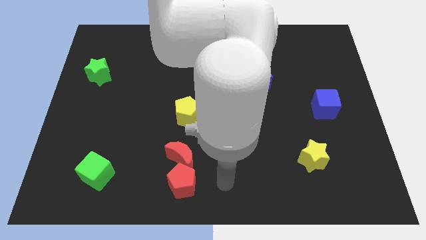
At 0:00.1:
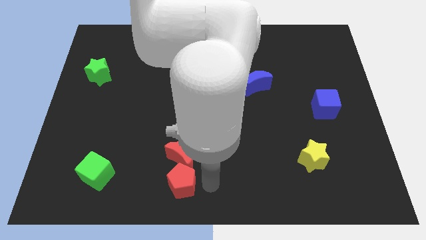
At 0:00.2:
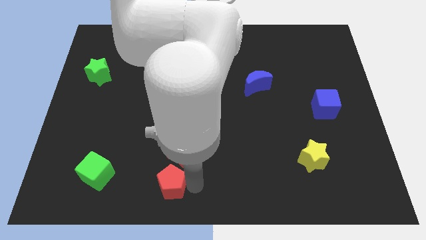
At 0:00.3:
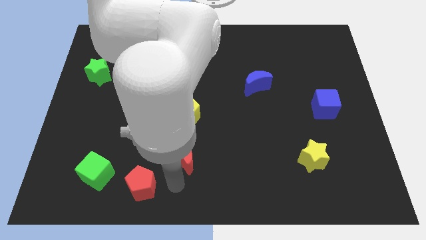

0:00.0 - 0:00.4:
pull the red moon apart from the red pentagon

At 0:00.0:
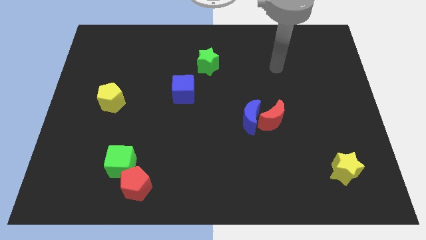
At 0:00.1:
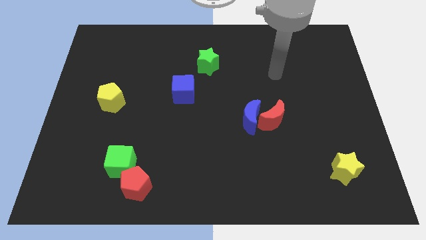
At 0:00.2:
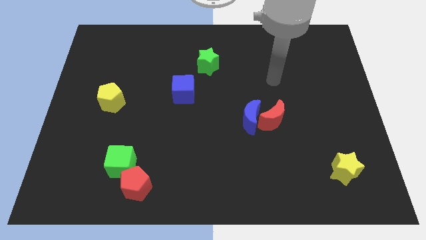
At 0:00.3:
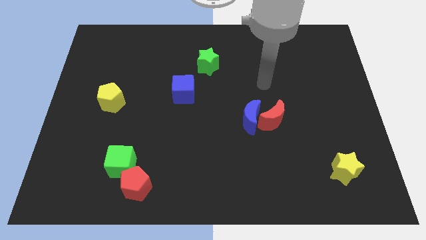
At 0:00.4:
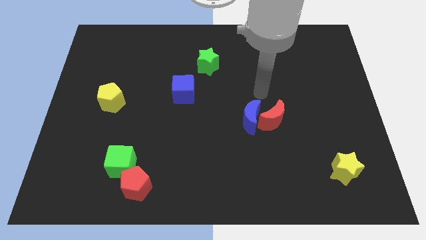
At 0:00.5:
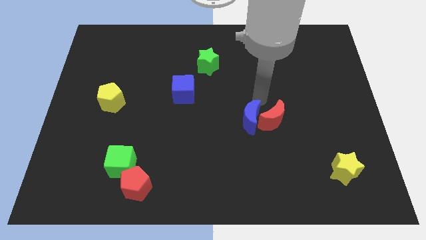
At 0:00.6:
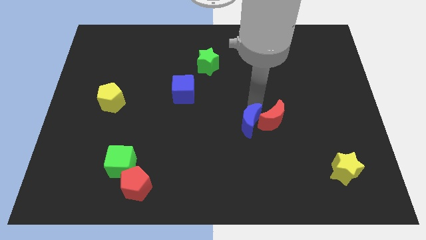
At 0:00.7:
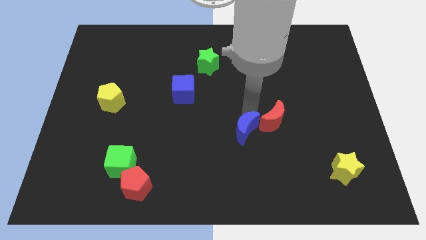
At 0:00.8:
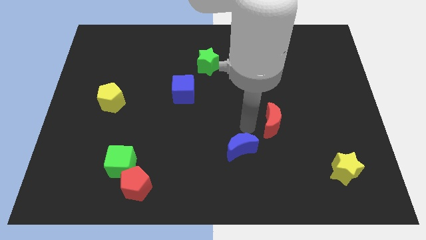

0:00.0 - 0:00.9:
move the red moon away from the blue moon

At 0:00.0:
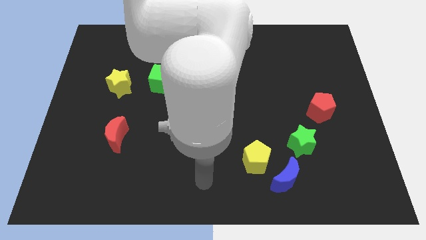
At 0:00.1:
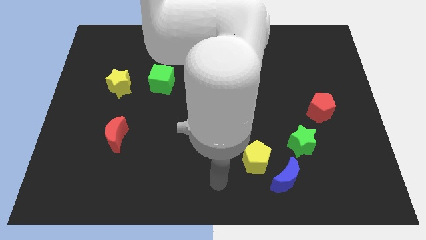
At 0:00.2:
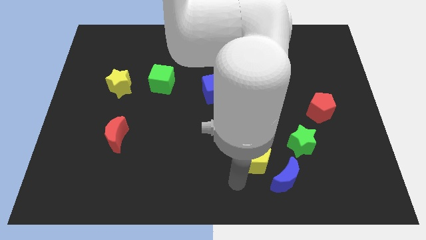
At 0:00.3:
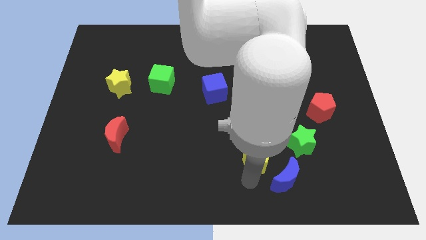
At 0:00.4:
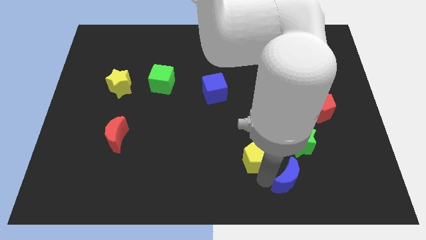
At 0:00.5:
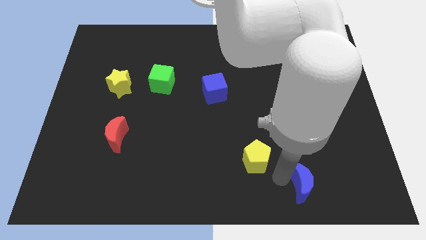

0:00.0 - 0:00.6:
pull the yellow pentagon apart from the blue moon

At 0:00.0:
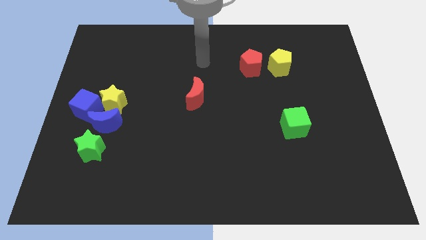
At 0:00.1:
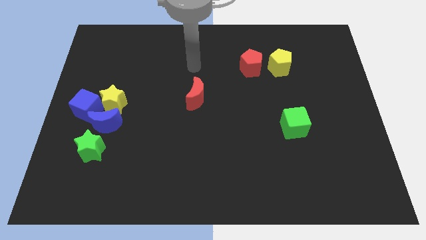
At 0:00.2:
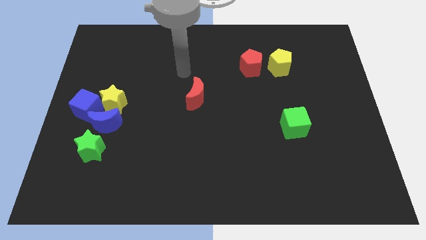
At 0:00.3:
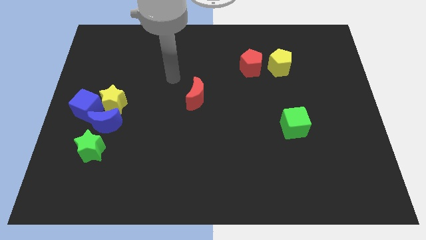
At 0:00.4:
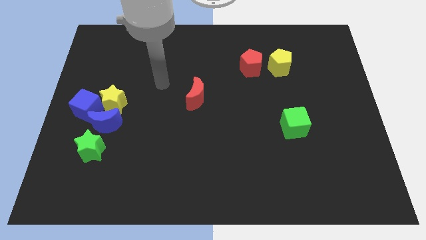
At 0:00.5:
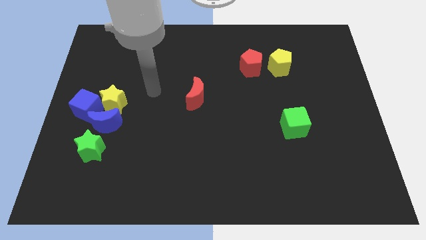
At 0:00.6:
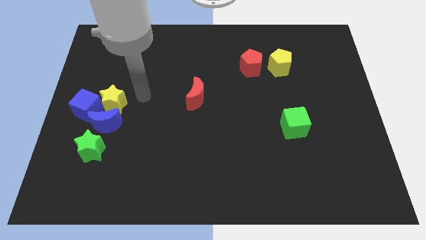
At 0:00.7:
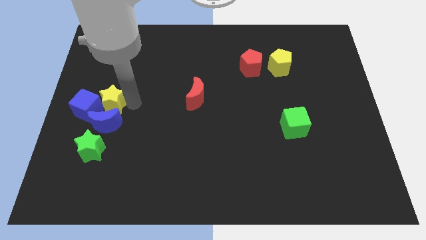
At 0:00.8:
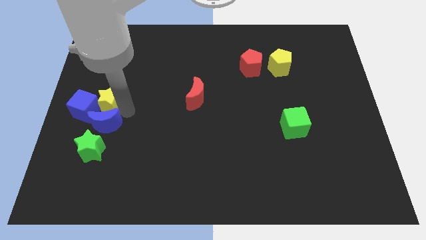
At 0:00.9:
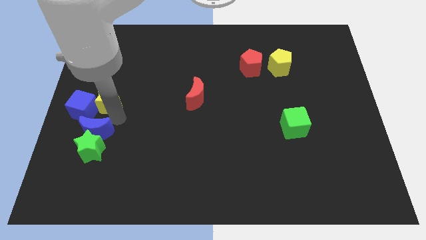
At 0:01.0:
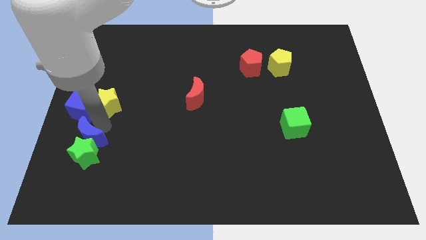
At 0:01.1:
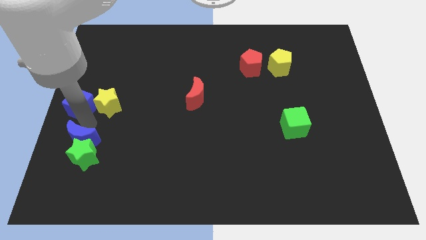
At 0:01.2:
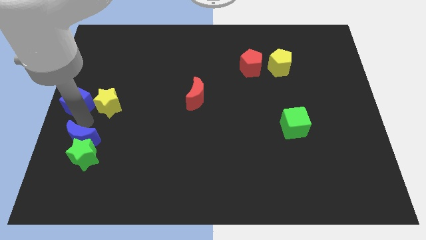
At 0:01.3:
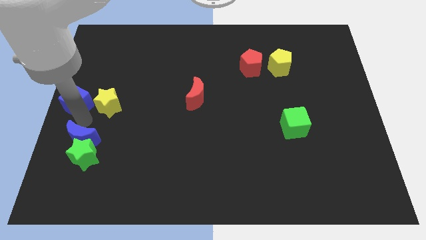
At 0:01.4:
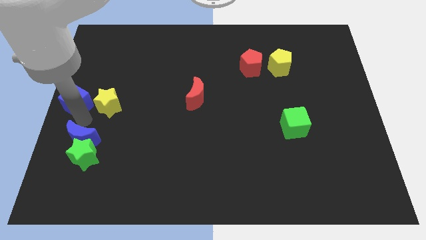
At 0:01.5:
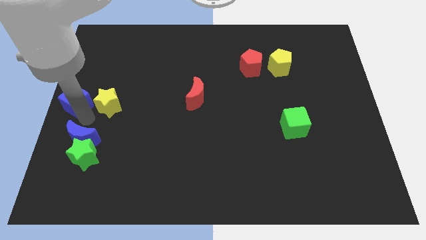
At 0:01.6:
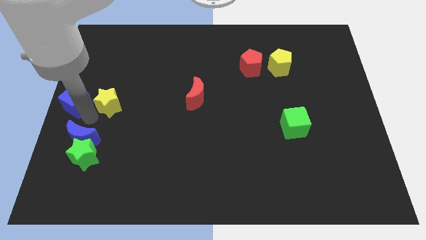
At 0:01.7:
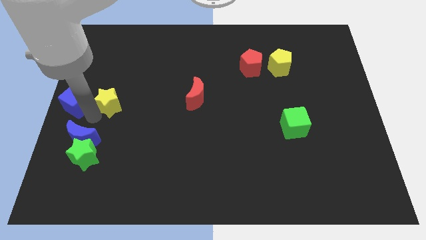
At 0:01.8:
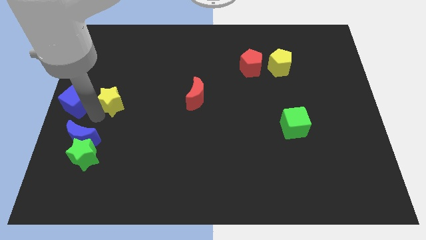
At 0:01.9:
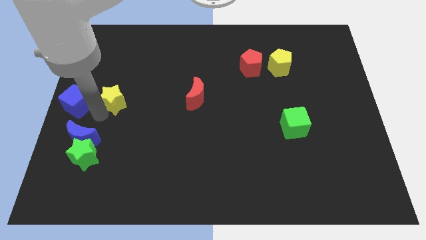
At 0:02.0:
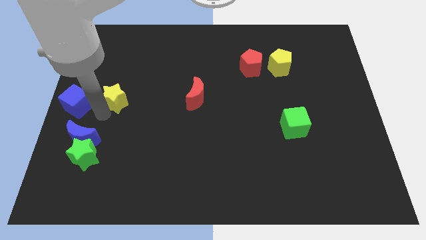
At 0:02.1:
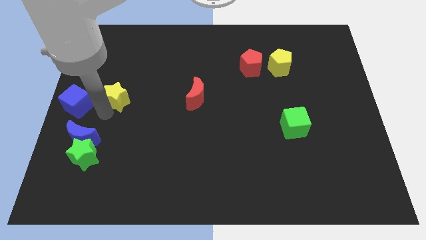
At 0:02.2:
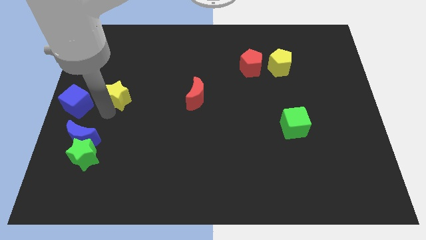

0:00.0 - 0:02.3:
pull the yellow star apart from the blue cube and blue moon

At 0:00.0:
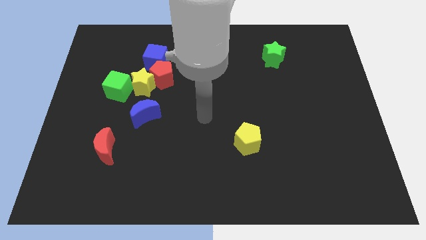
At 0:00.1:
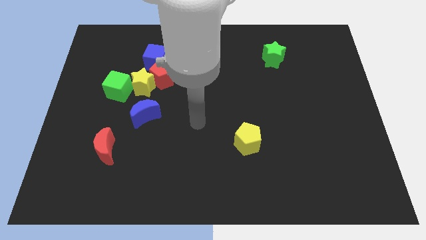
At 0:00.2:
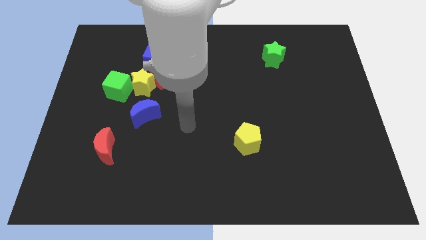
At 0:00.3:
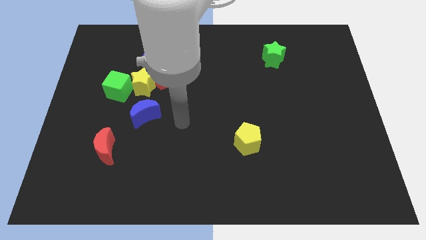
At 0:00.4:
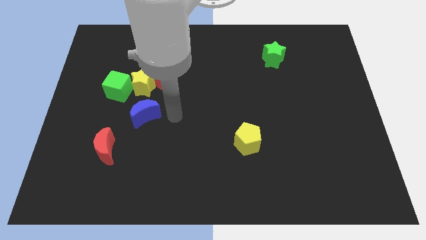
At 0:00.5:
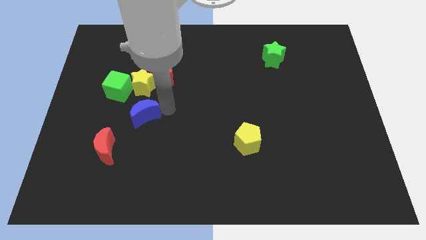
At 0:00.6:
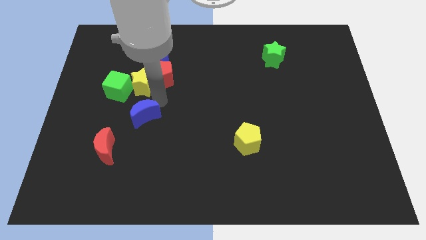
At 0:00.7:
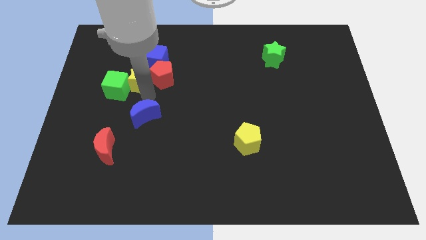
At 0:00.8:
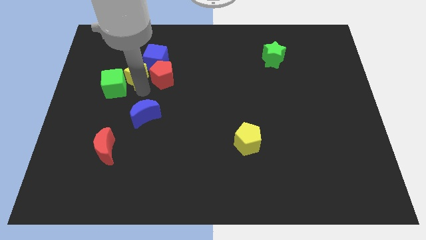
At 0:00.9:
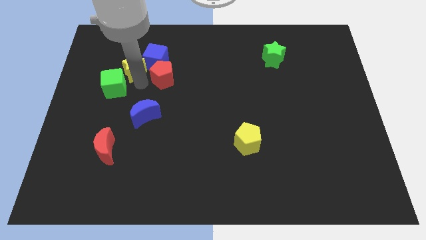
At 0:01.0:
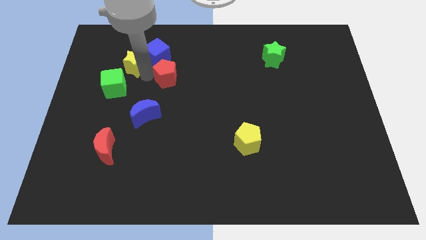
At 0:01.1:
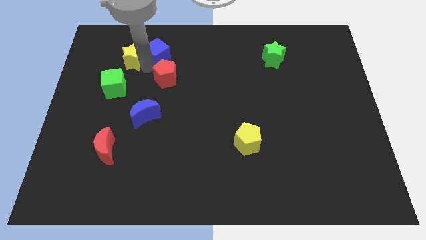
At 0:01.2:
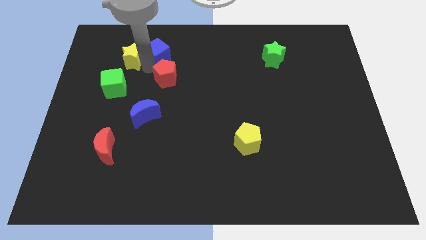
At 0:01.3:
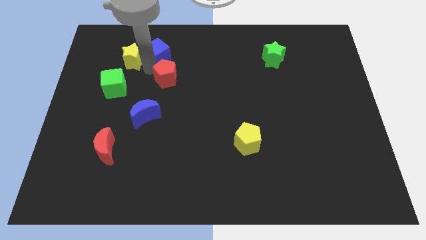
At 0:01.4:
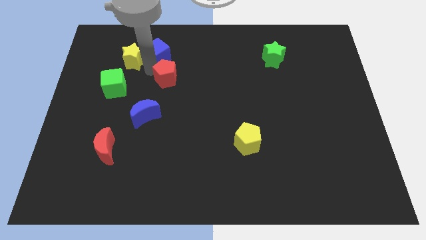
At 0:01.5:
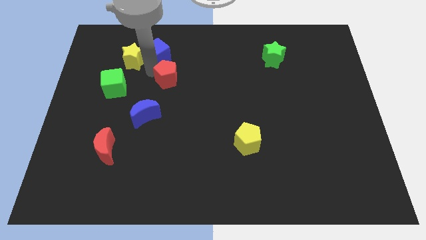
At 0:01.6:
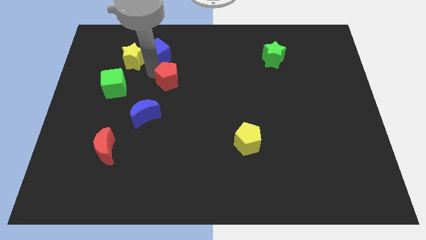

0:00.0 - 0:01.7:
move the red pentagon away from the yellow star and blue cube

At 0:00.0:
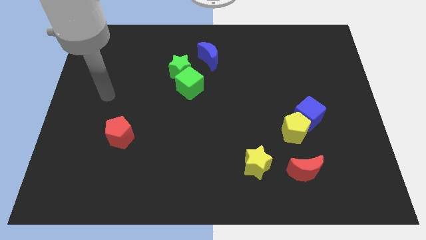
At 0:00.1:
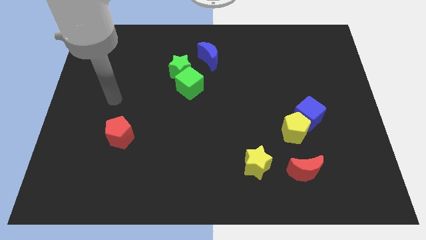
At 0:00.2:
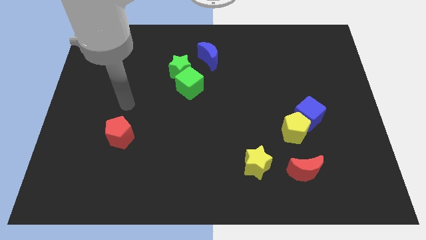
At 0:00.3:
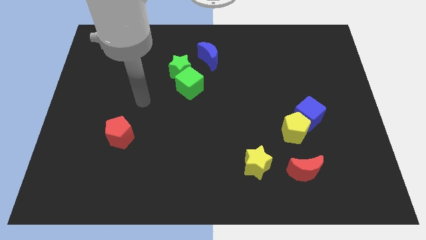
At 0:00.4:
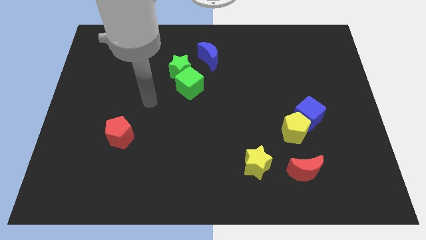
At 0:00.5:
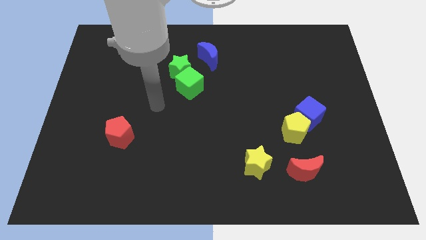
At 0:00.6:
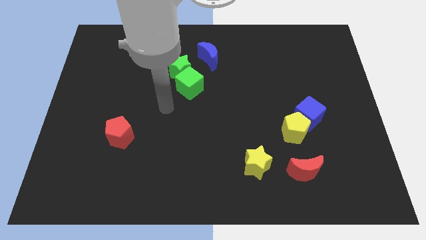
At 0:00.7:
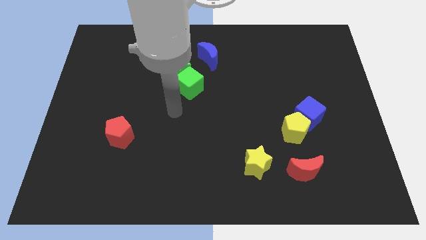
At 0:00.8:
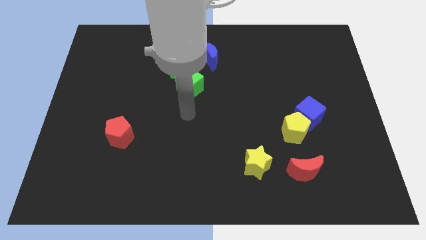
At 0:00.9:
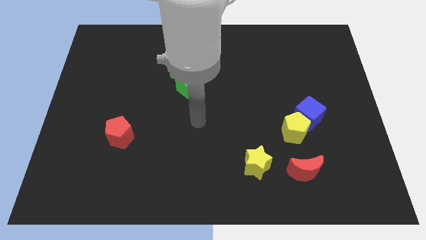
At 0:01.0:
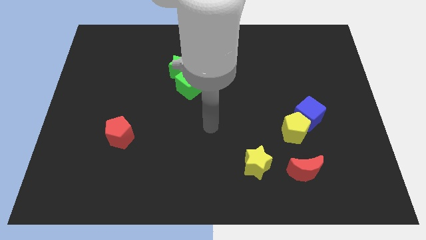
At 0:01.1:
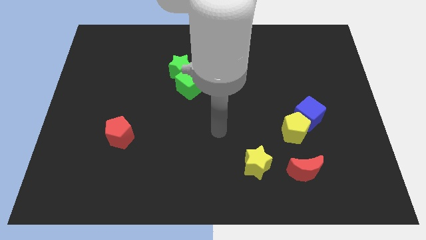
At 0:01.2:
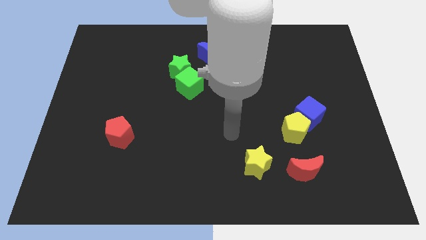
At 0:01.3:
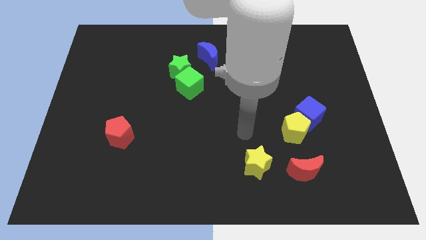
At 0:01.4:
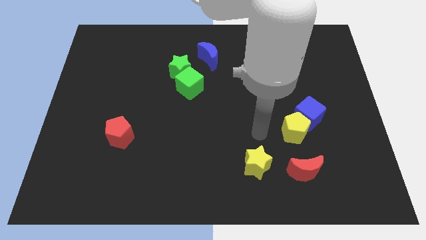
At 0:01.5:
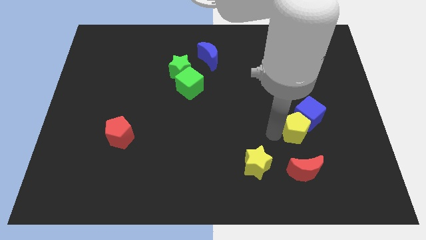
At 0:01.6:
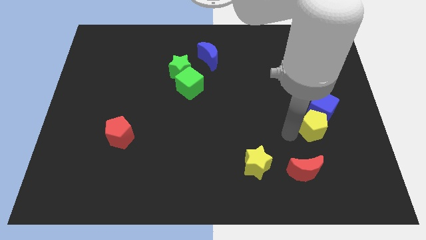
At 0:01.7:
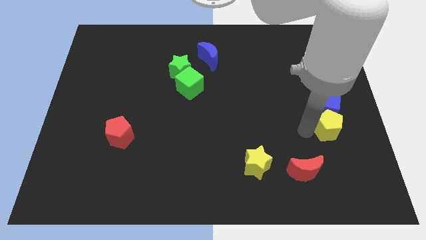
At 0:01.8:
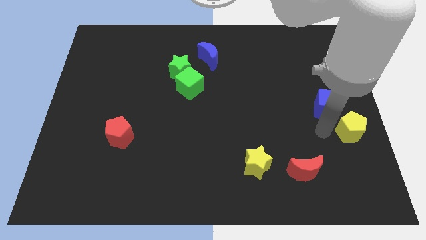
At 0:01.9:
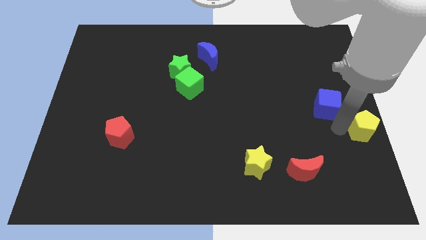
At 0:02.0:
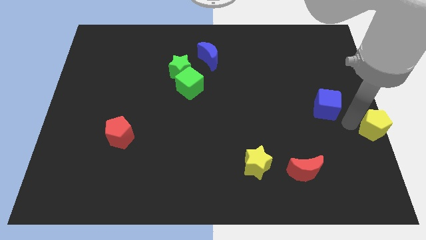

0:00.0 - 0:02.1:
move the blue cube away from the yellow pentagon

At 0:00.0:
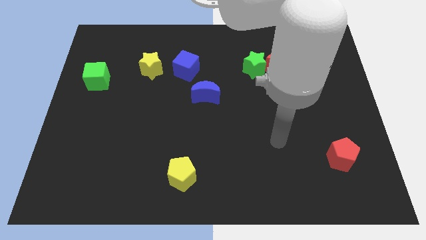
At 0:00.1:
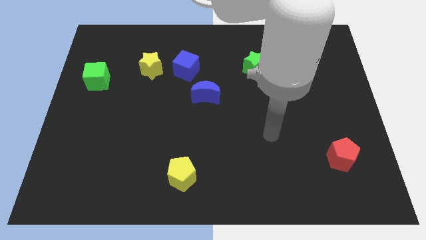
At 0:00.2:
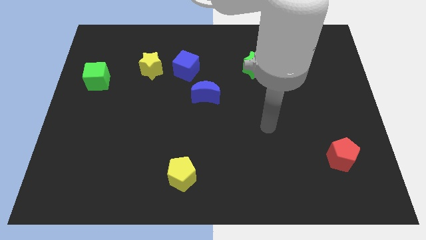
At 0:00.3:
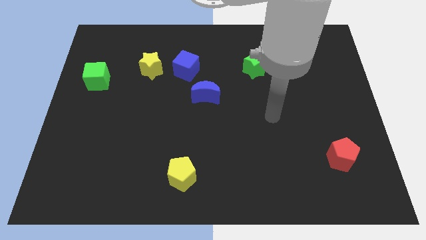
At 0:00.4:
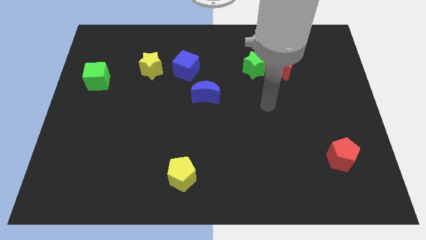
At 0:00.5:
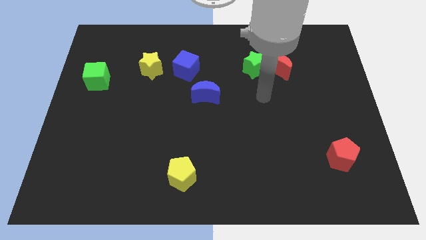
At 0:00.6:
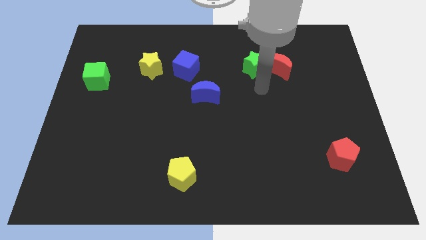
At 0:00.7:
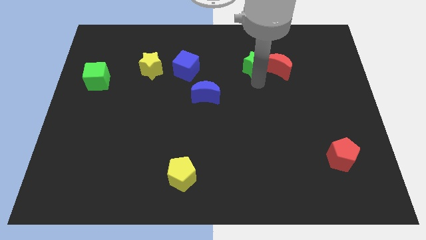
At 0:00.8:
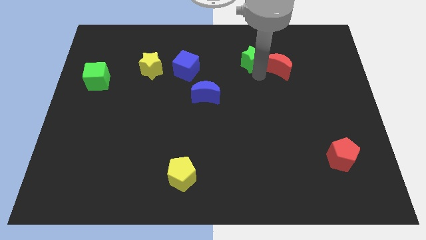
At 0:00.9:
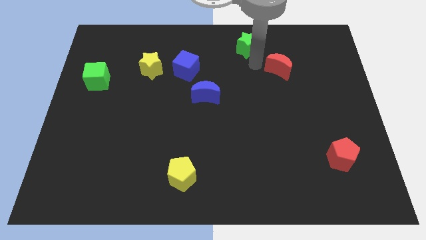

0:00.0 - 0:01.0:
pull the red moon apart from the green star

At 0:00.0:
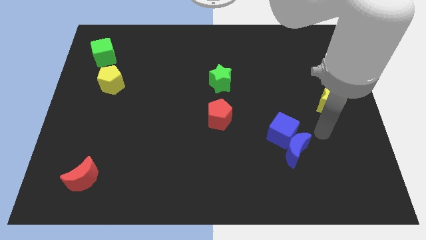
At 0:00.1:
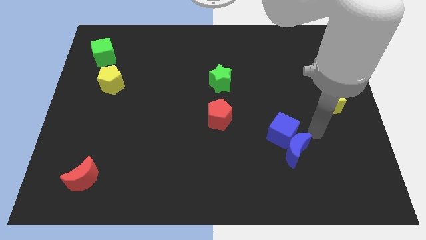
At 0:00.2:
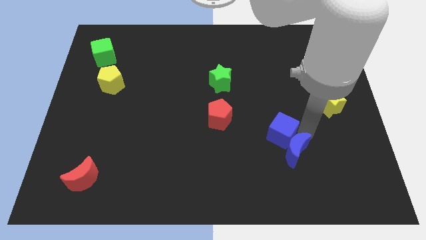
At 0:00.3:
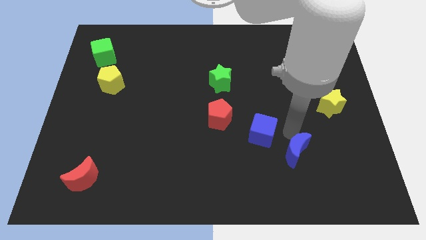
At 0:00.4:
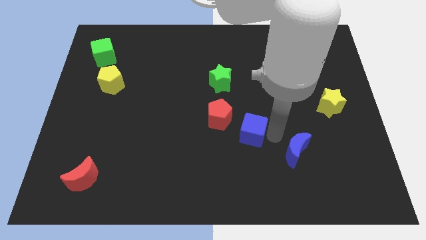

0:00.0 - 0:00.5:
pull the blue moon apart from the blue cube
